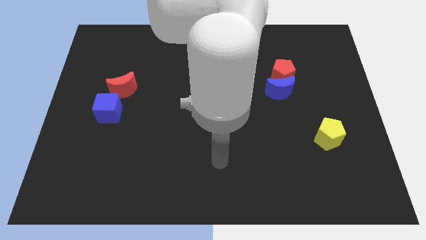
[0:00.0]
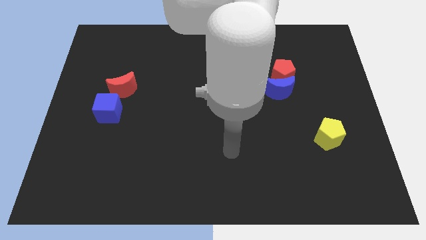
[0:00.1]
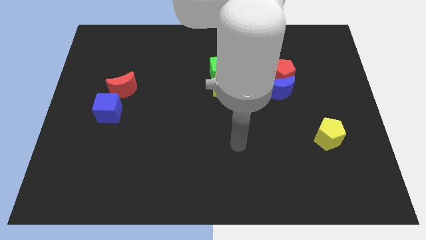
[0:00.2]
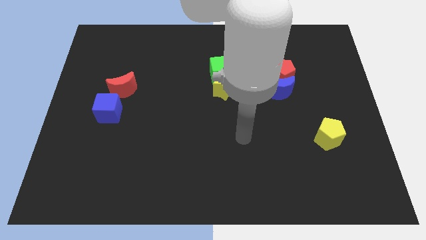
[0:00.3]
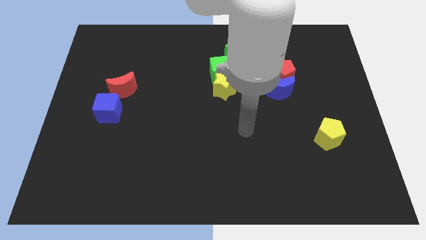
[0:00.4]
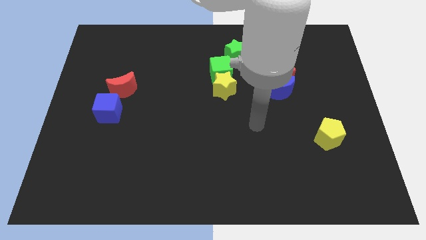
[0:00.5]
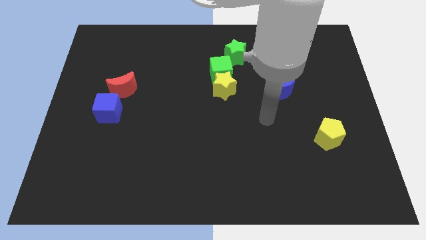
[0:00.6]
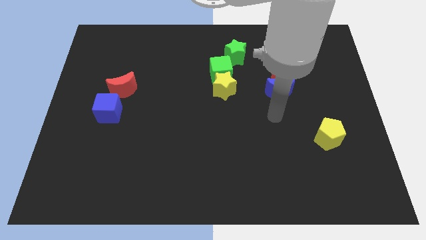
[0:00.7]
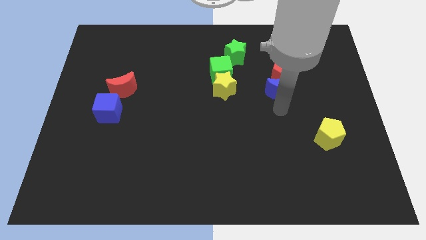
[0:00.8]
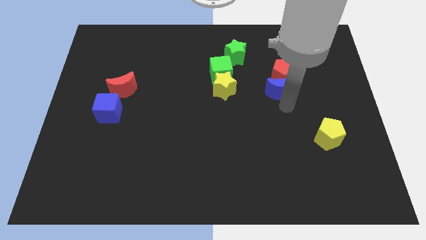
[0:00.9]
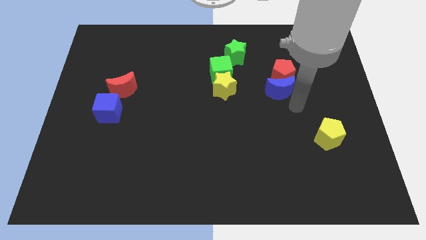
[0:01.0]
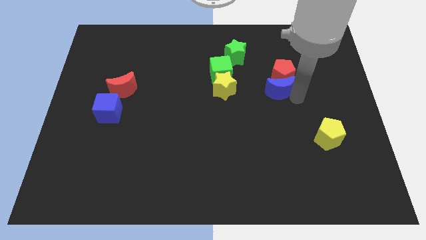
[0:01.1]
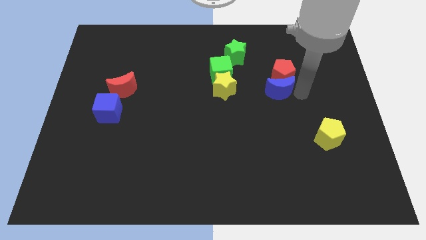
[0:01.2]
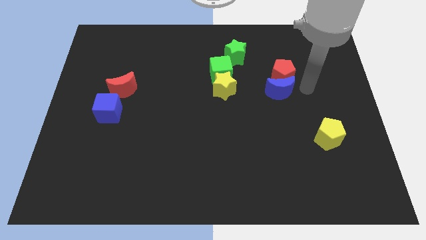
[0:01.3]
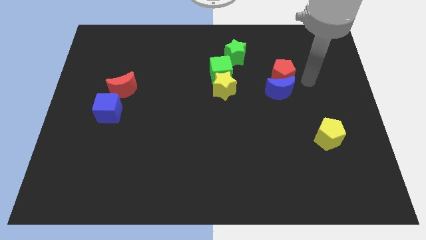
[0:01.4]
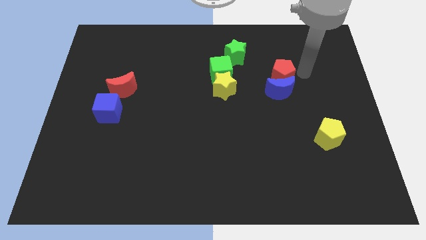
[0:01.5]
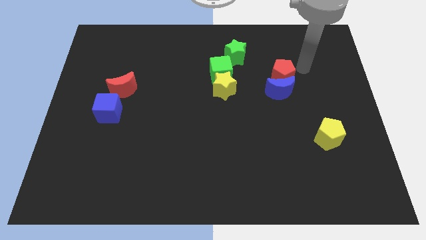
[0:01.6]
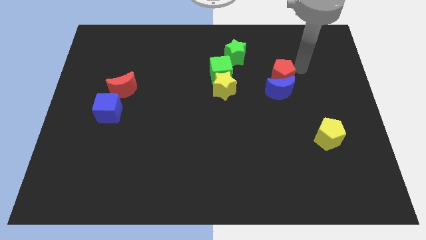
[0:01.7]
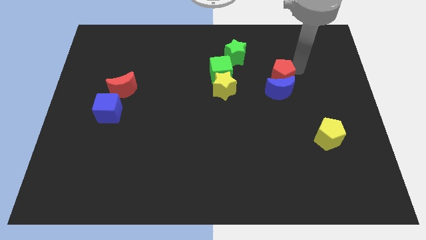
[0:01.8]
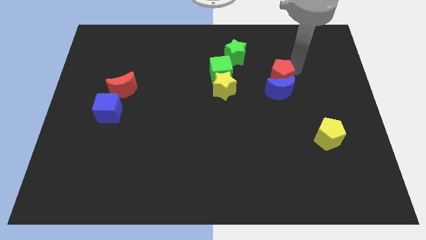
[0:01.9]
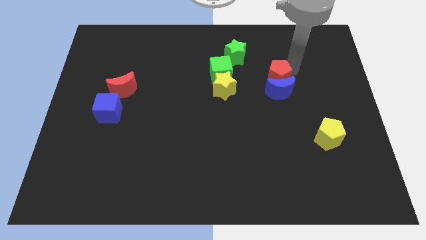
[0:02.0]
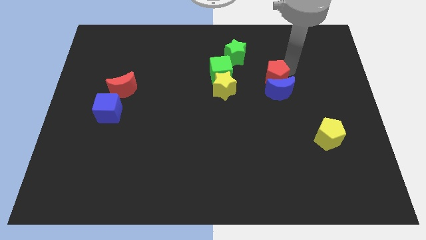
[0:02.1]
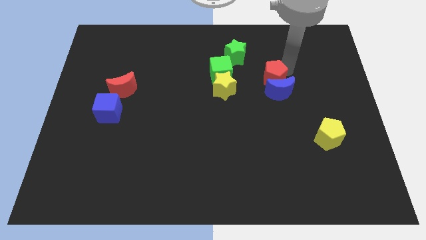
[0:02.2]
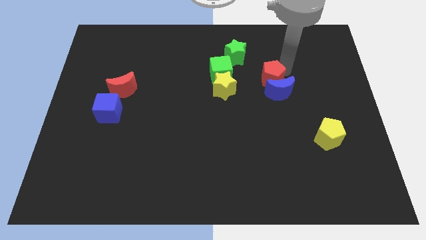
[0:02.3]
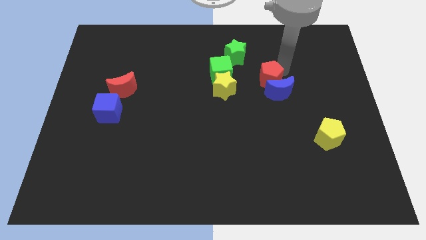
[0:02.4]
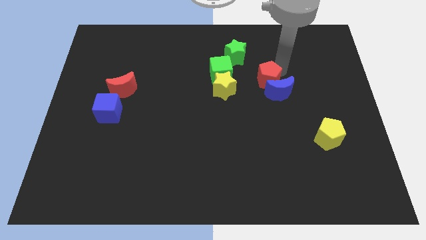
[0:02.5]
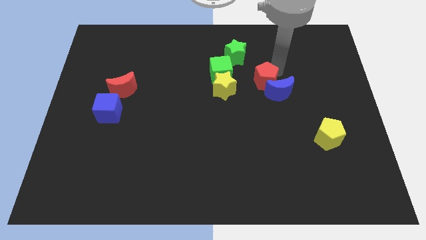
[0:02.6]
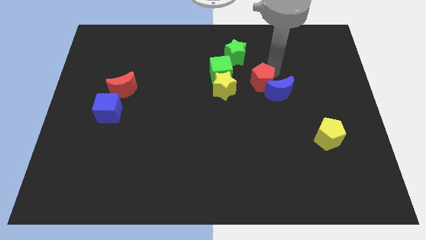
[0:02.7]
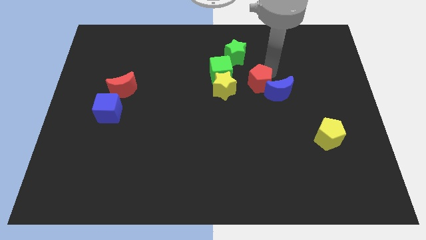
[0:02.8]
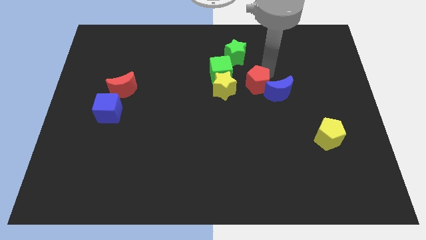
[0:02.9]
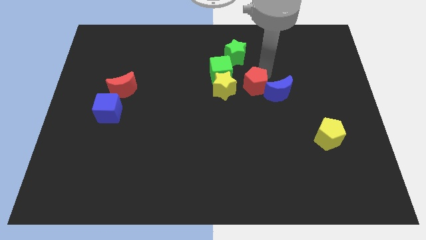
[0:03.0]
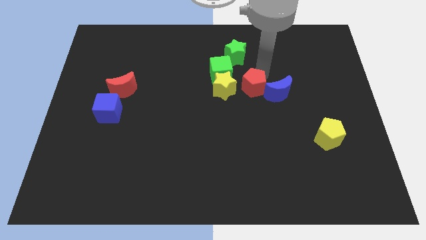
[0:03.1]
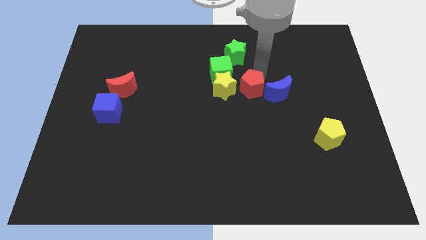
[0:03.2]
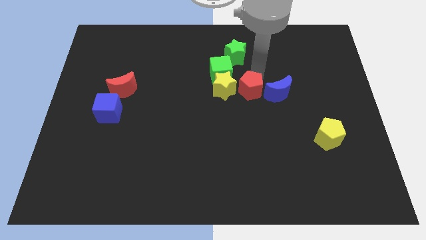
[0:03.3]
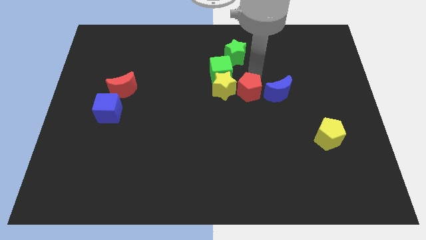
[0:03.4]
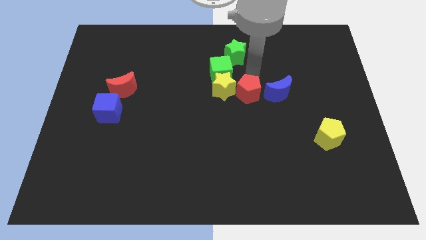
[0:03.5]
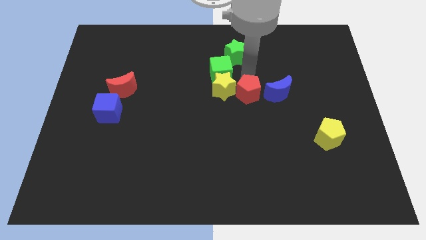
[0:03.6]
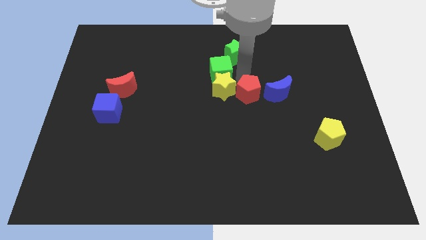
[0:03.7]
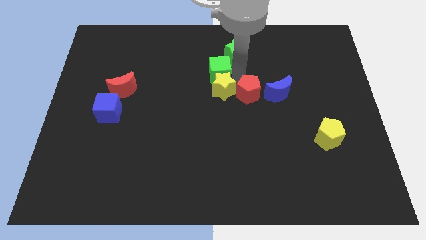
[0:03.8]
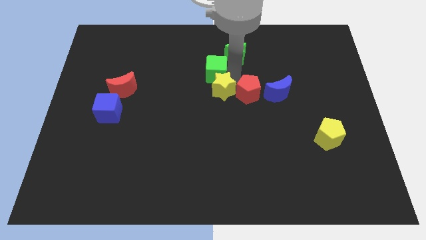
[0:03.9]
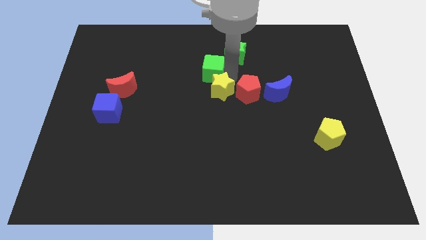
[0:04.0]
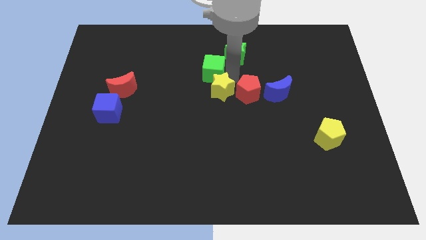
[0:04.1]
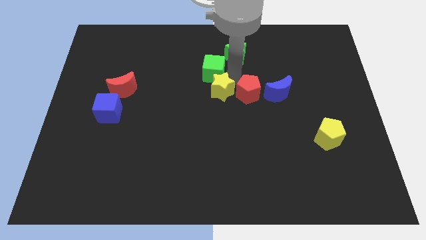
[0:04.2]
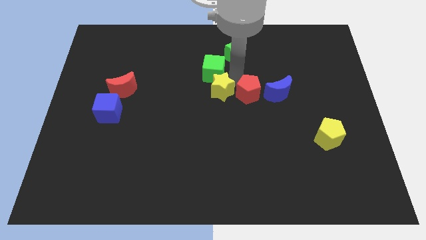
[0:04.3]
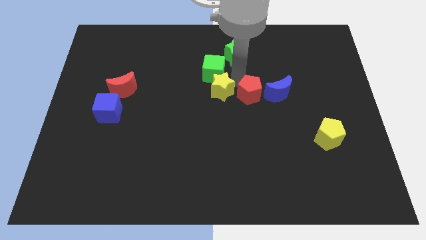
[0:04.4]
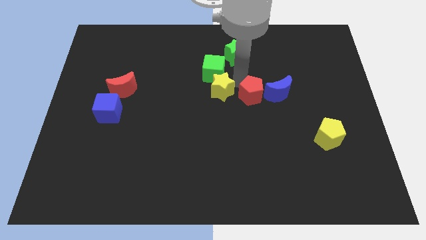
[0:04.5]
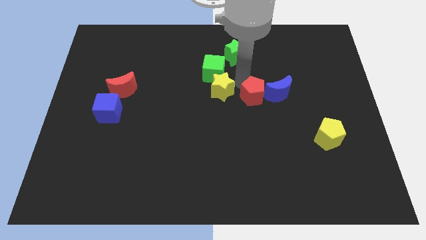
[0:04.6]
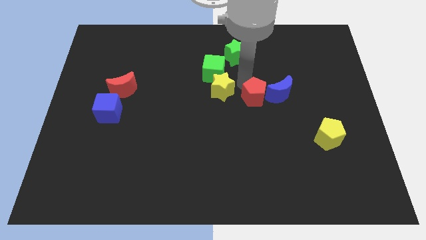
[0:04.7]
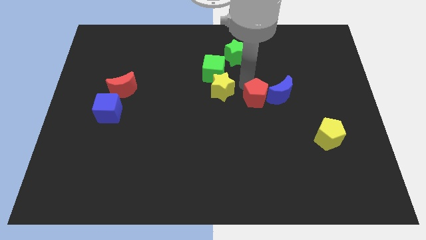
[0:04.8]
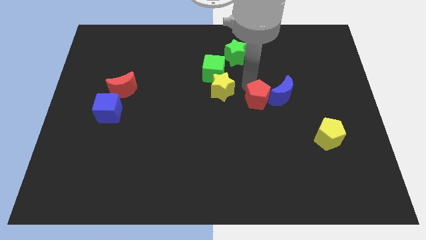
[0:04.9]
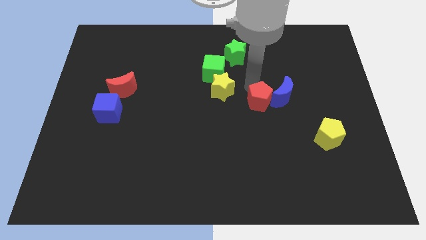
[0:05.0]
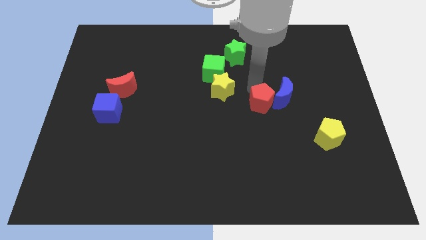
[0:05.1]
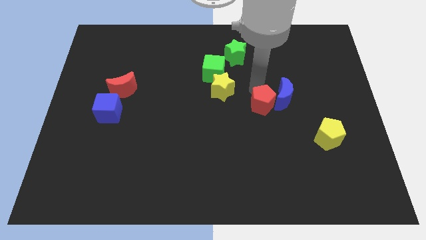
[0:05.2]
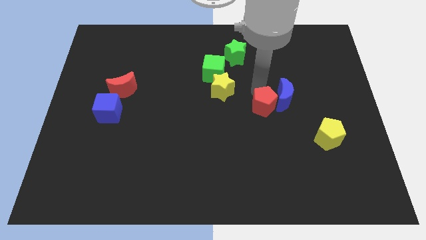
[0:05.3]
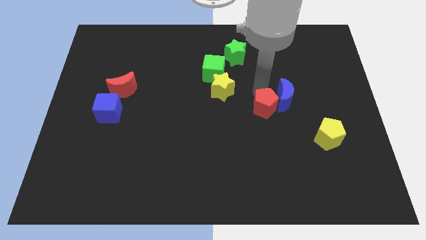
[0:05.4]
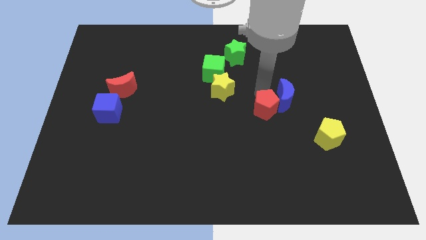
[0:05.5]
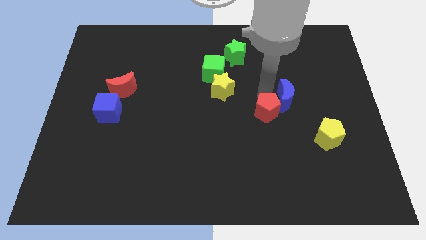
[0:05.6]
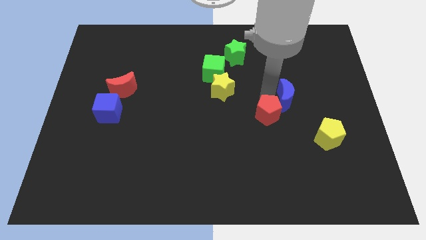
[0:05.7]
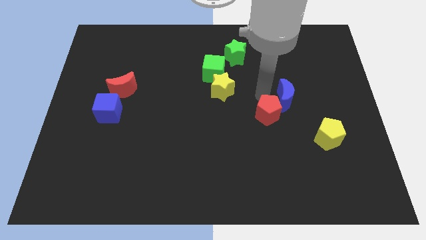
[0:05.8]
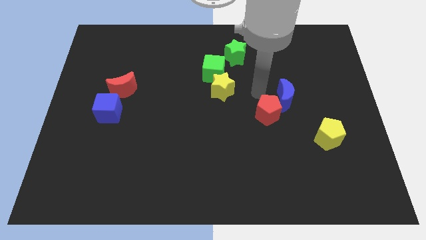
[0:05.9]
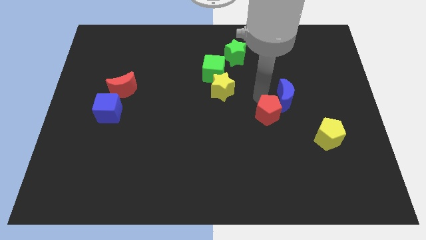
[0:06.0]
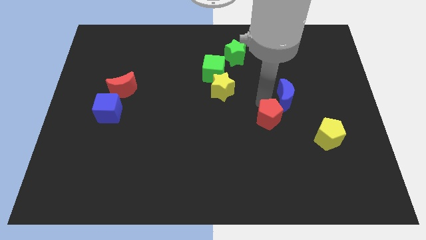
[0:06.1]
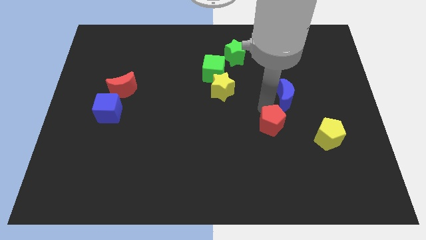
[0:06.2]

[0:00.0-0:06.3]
slide the red pentagon to the left side of the yellow pentagon
